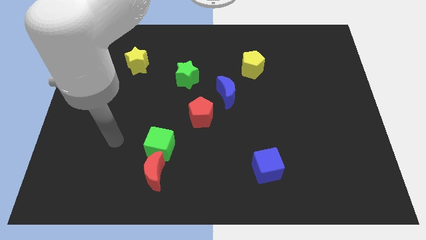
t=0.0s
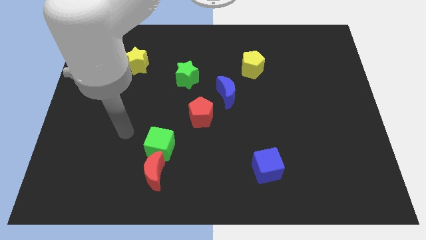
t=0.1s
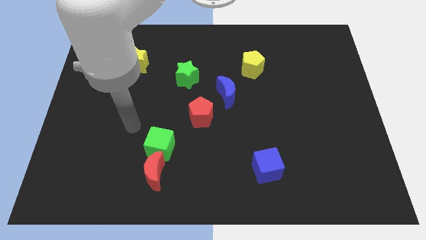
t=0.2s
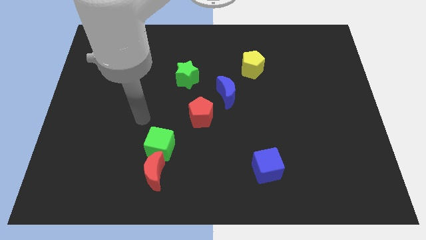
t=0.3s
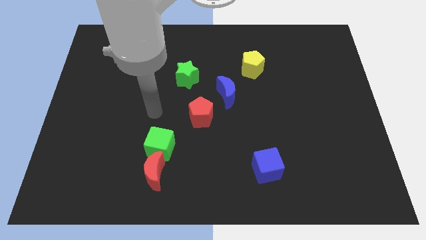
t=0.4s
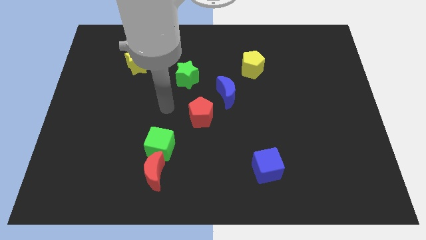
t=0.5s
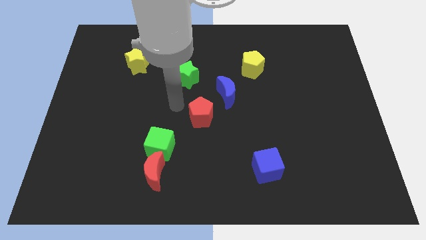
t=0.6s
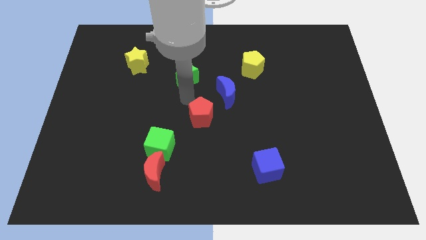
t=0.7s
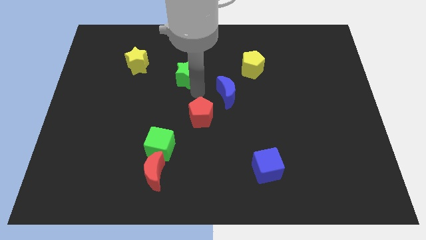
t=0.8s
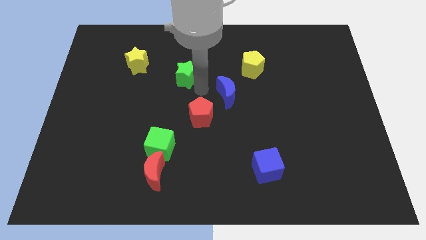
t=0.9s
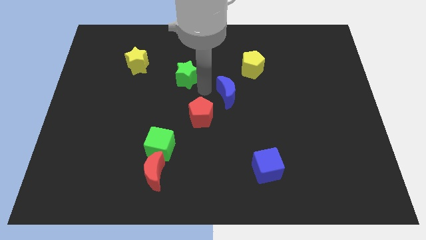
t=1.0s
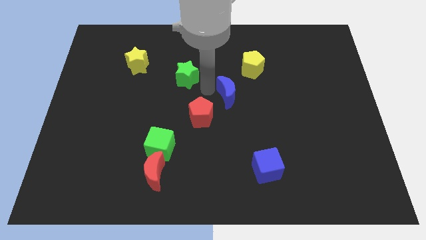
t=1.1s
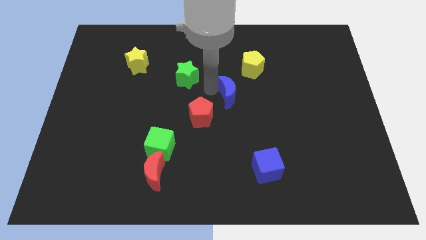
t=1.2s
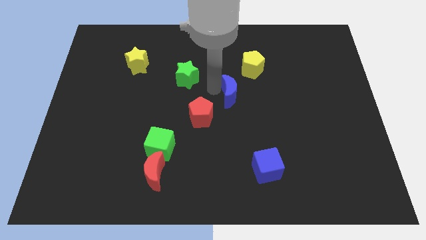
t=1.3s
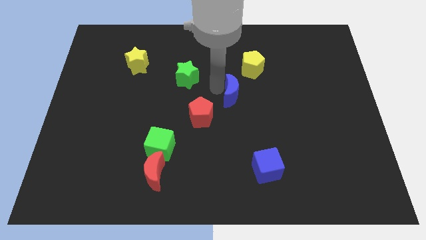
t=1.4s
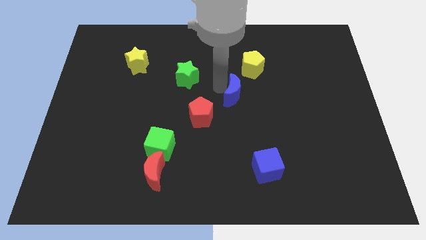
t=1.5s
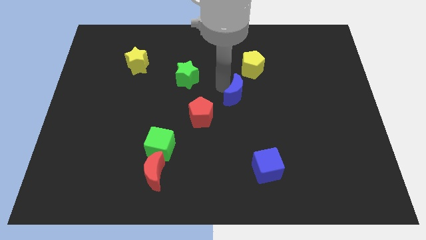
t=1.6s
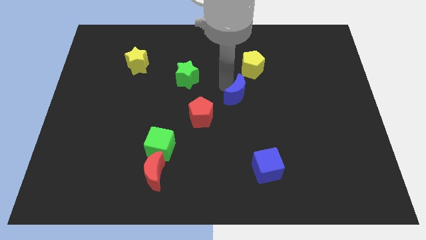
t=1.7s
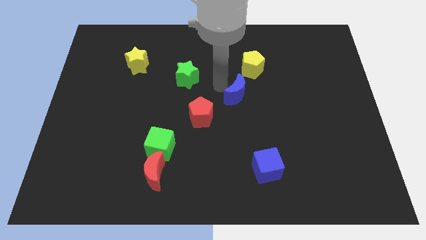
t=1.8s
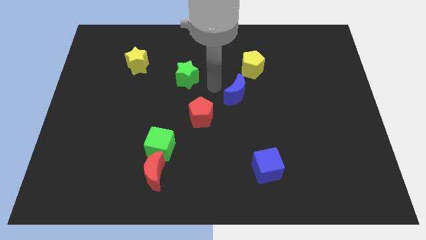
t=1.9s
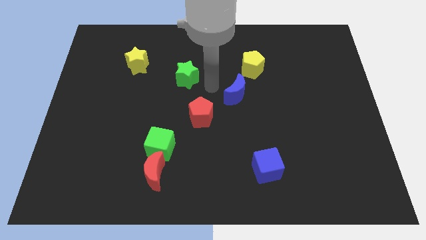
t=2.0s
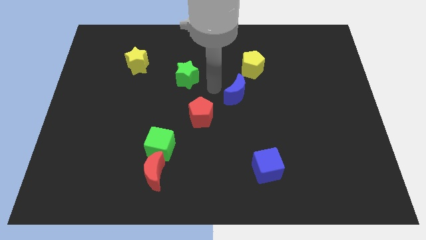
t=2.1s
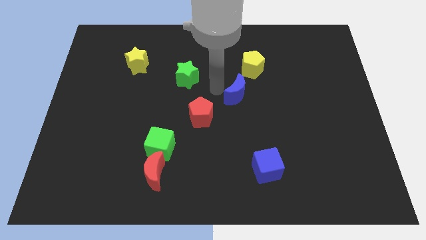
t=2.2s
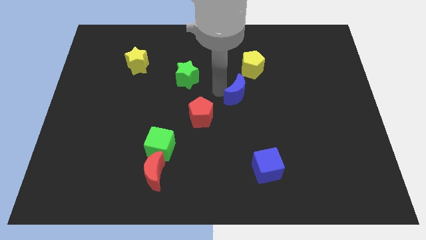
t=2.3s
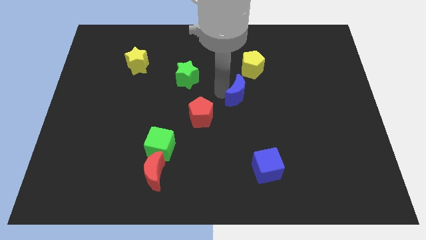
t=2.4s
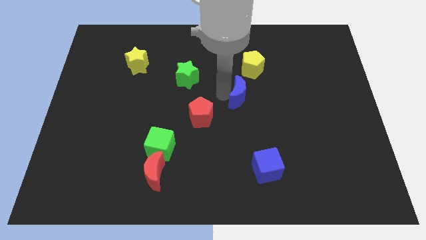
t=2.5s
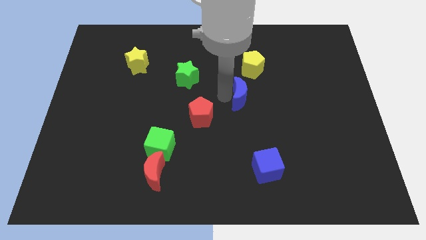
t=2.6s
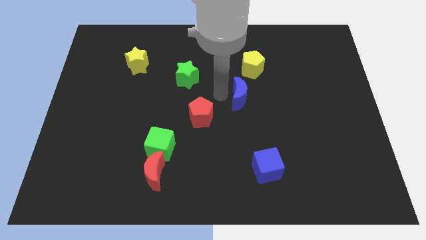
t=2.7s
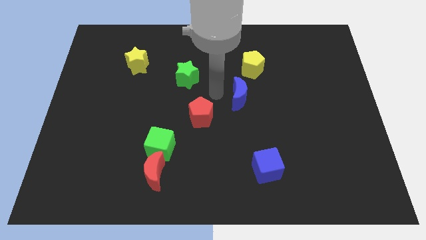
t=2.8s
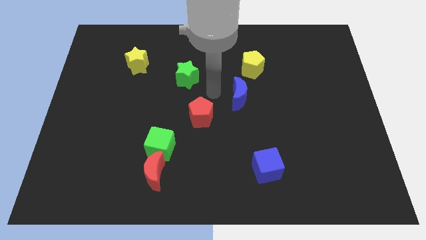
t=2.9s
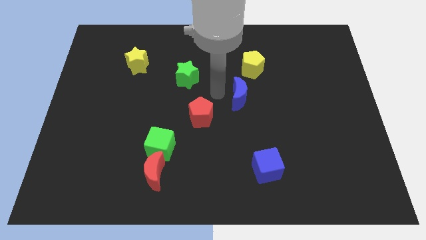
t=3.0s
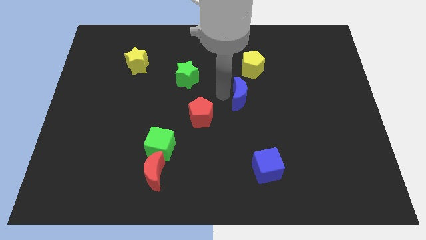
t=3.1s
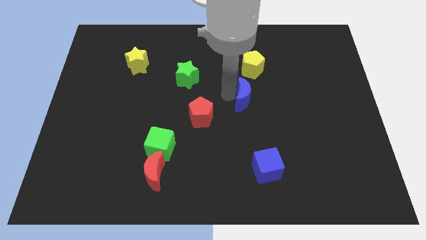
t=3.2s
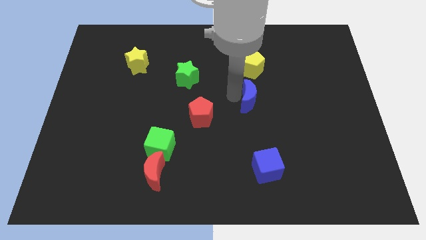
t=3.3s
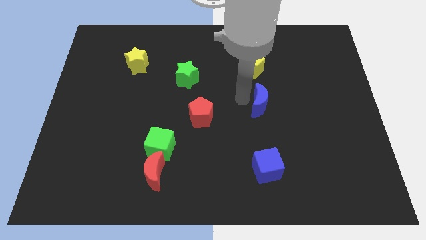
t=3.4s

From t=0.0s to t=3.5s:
slide the blue moon right somewhat

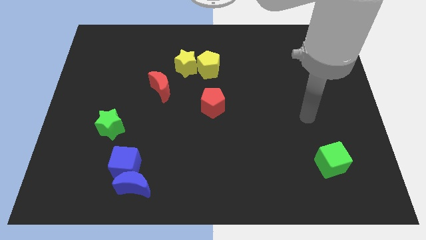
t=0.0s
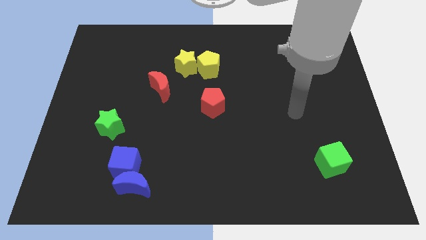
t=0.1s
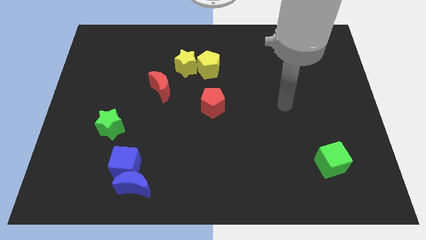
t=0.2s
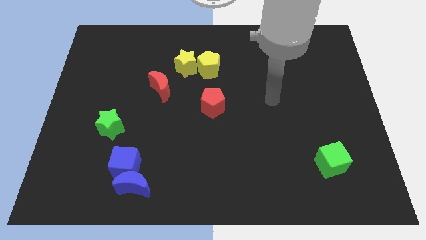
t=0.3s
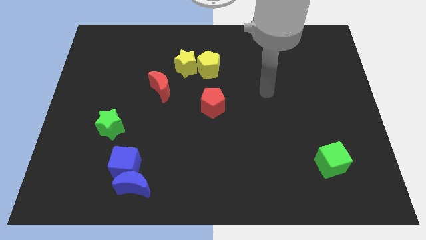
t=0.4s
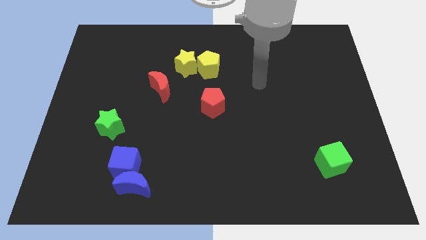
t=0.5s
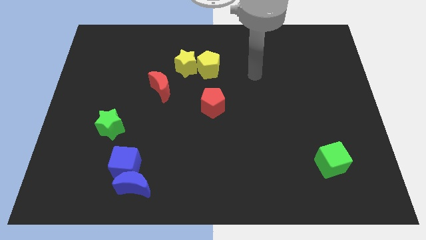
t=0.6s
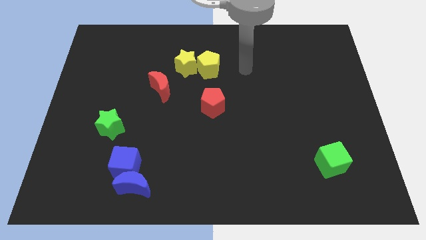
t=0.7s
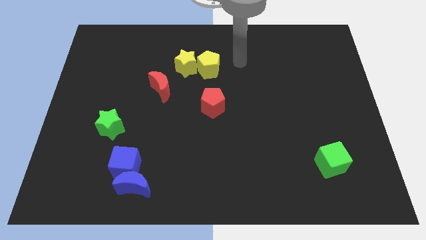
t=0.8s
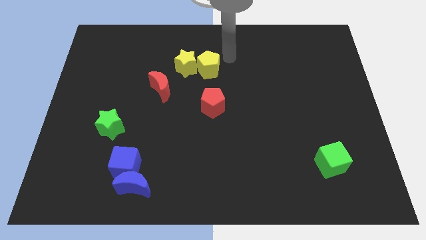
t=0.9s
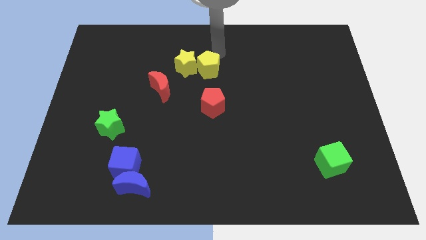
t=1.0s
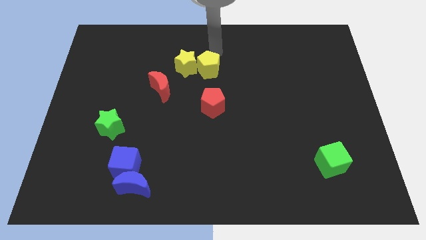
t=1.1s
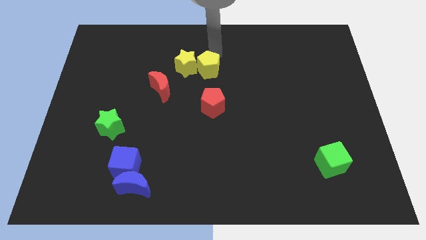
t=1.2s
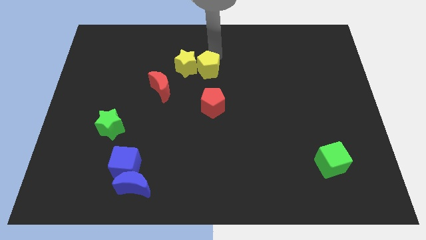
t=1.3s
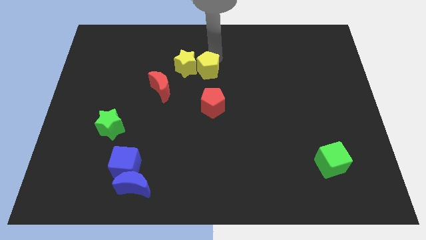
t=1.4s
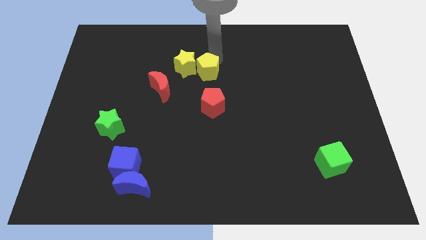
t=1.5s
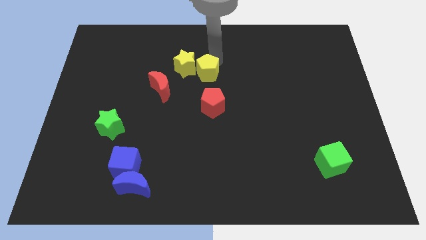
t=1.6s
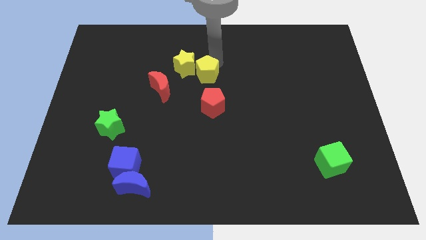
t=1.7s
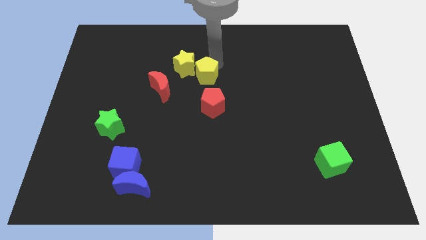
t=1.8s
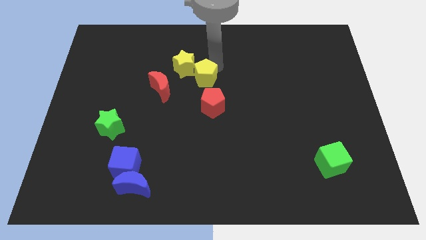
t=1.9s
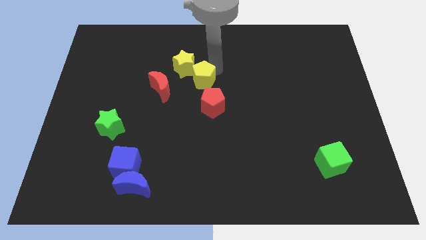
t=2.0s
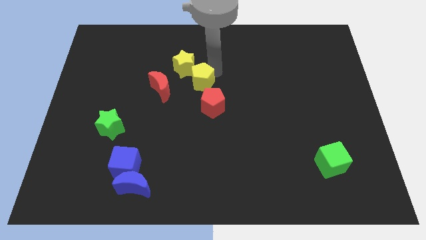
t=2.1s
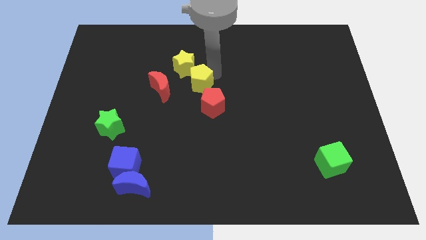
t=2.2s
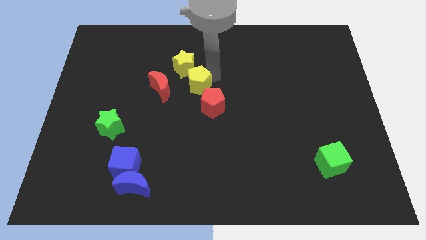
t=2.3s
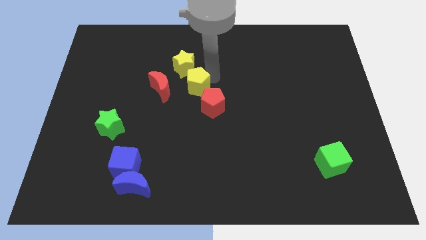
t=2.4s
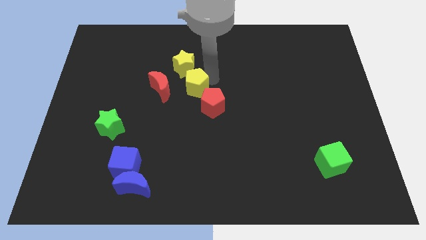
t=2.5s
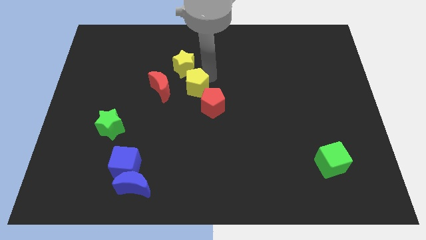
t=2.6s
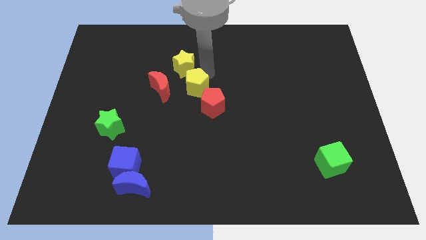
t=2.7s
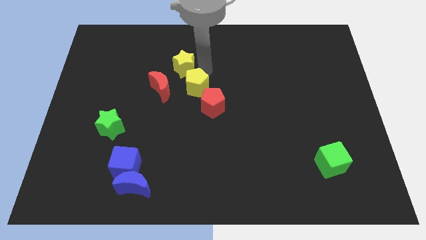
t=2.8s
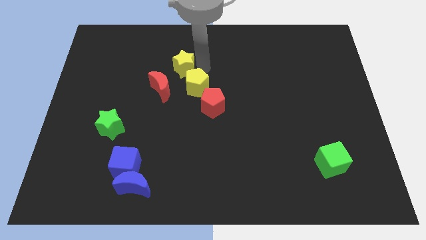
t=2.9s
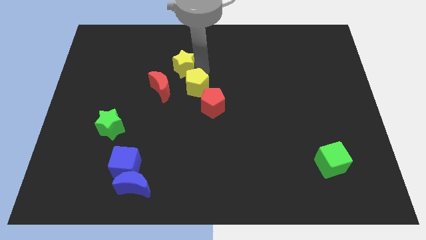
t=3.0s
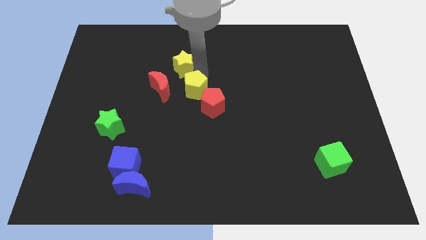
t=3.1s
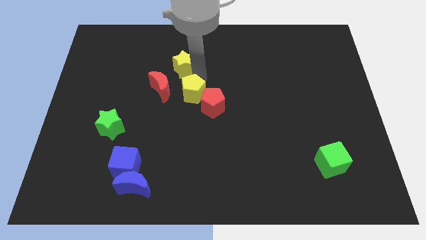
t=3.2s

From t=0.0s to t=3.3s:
slightly move the yellow pentagon downwards

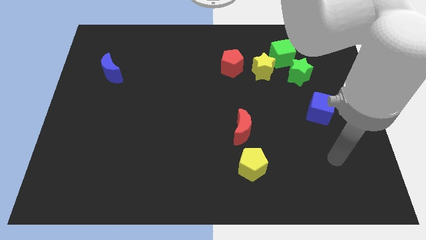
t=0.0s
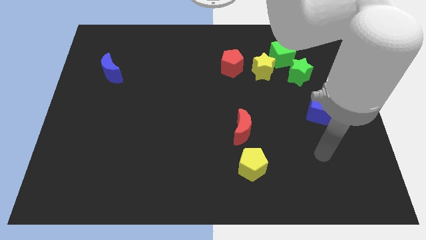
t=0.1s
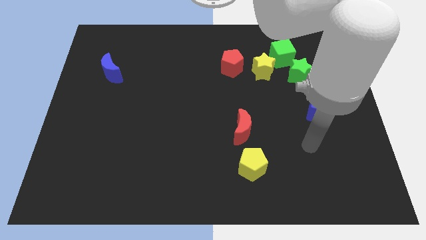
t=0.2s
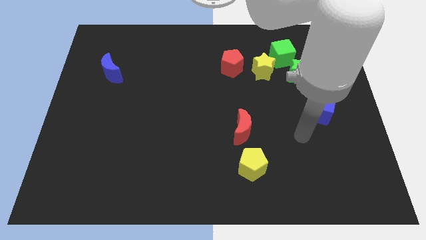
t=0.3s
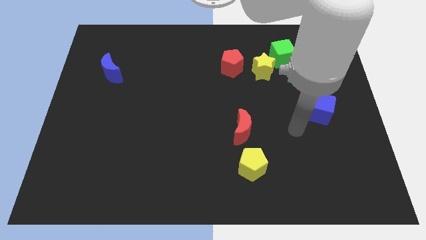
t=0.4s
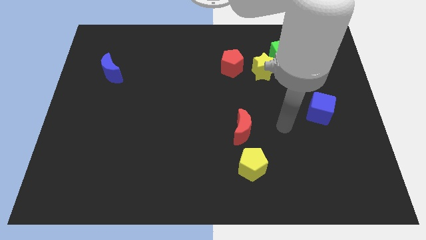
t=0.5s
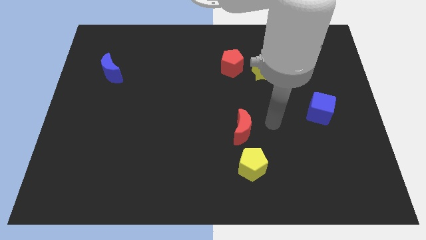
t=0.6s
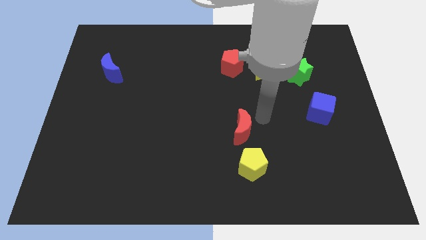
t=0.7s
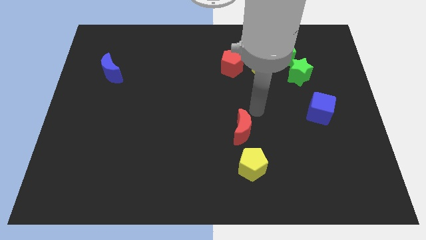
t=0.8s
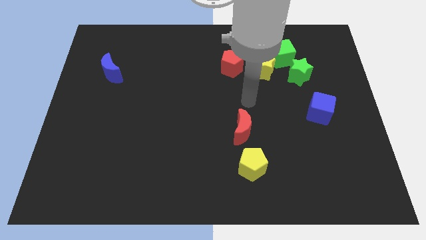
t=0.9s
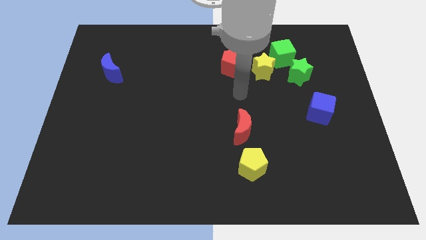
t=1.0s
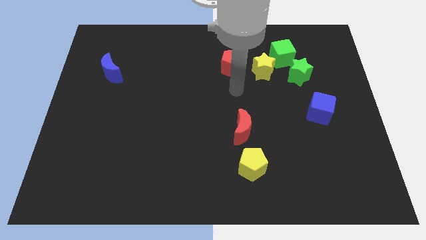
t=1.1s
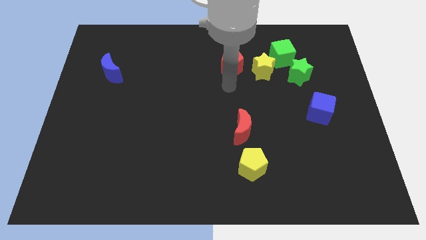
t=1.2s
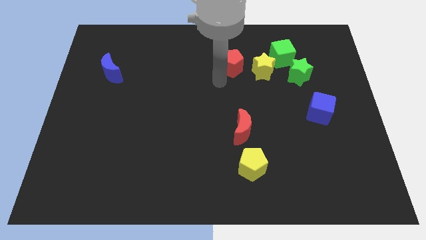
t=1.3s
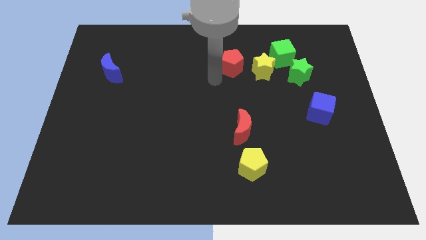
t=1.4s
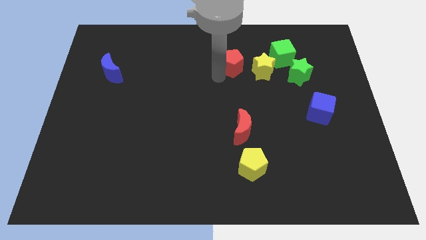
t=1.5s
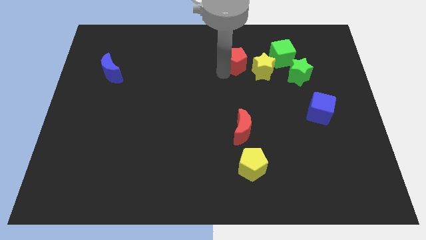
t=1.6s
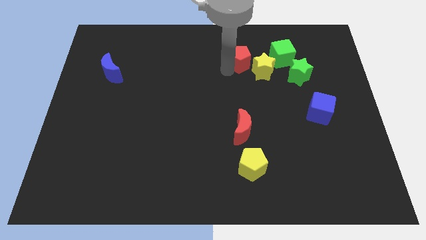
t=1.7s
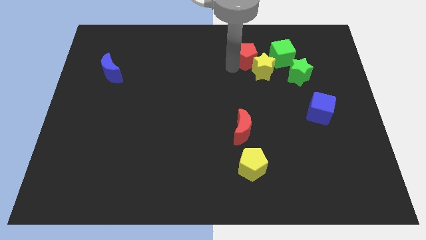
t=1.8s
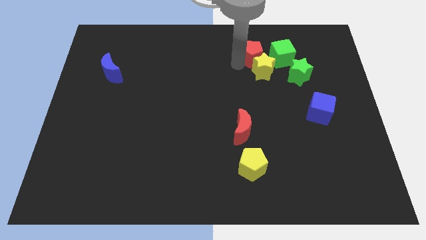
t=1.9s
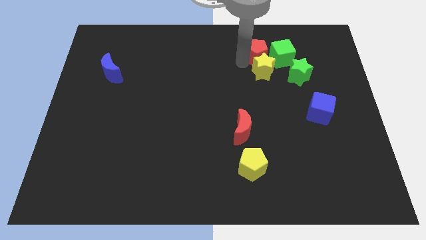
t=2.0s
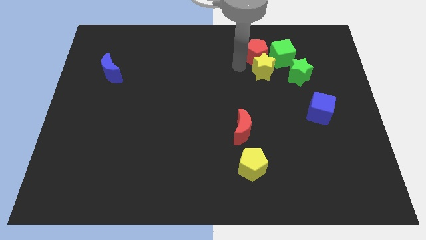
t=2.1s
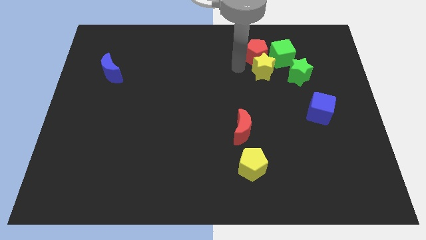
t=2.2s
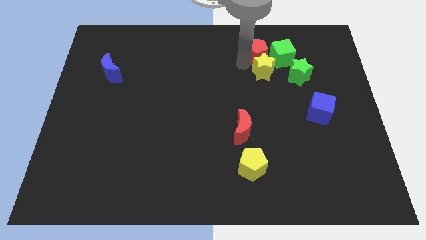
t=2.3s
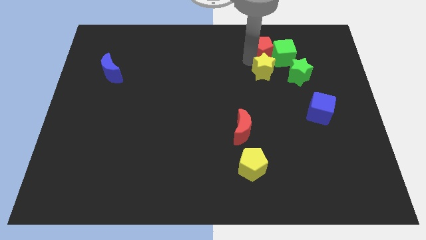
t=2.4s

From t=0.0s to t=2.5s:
slightly move the red pentagon right
